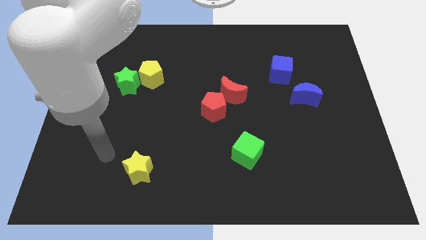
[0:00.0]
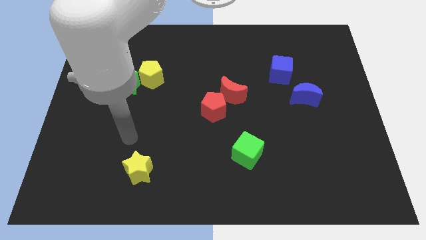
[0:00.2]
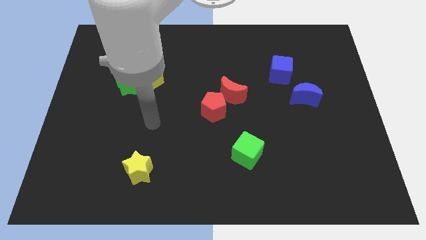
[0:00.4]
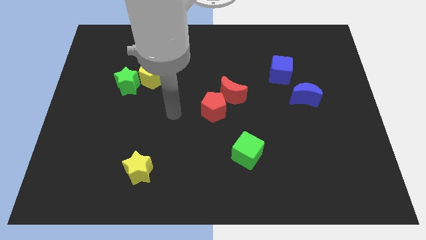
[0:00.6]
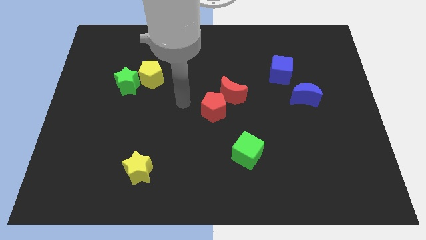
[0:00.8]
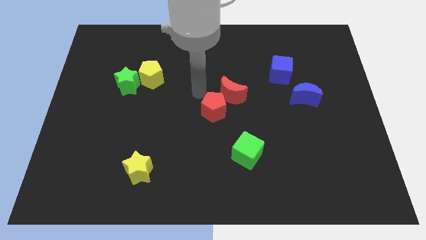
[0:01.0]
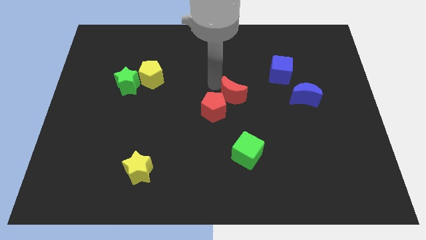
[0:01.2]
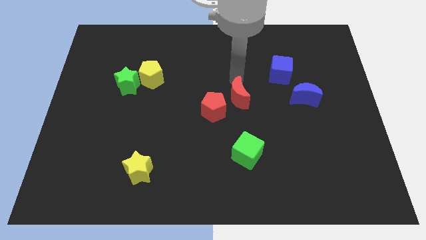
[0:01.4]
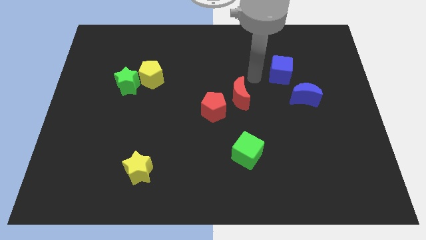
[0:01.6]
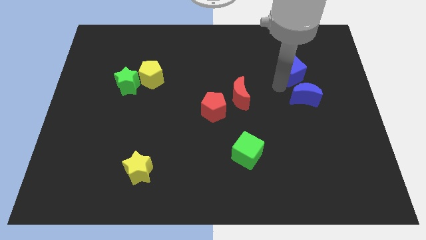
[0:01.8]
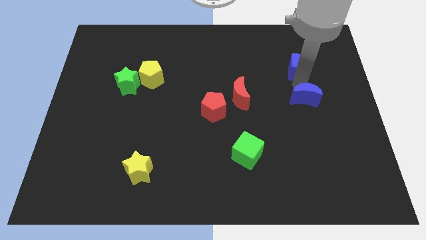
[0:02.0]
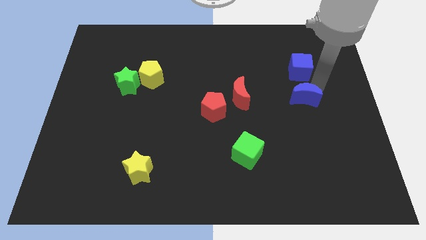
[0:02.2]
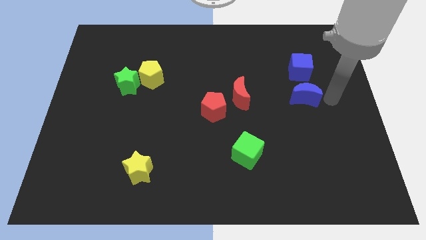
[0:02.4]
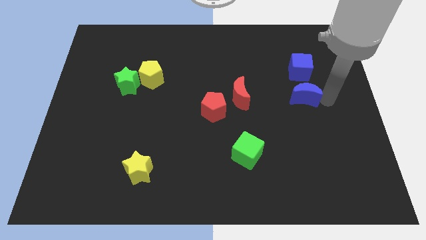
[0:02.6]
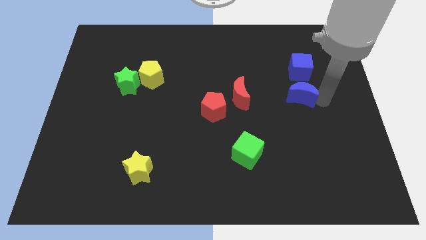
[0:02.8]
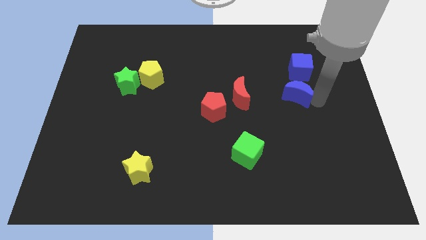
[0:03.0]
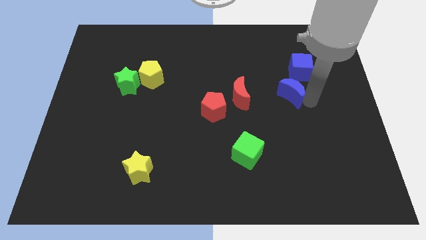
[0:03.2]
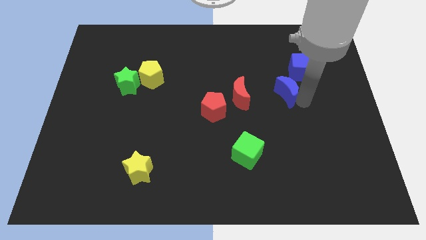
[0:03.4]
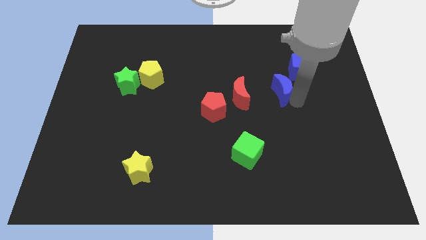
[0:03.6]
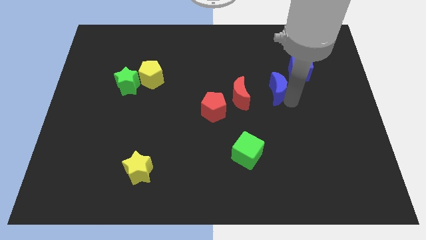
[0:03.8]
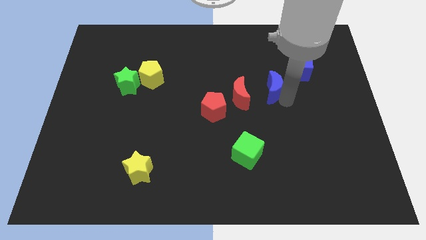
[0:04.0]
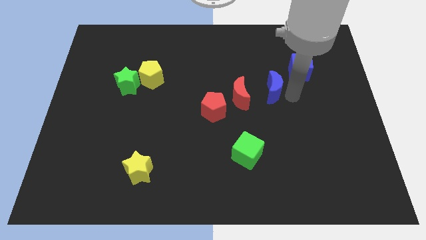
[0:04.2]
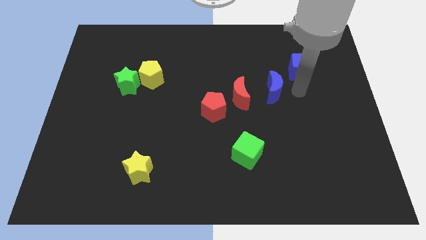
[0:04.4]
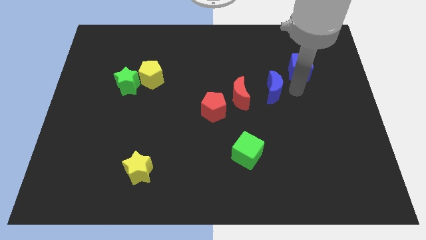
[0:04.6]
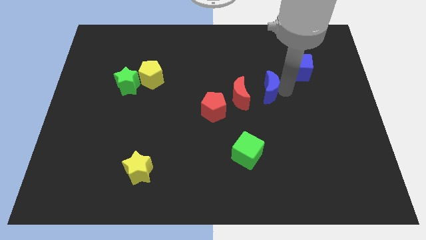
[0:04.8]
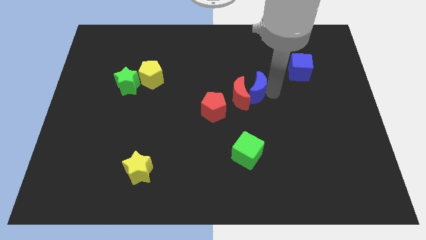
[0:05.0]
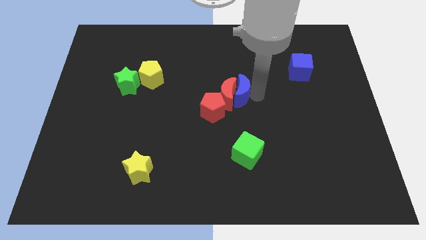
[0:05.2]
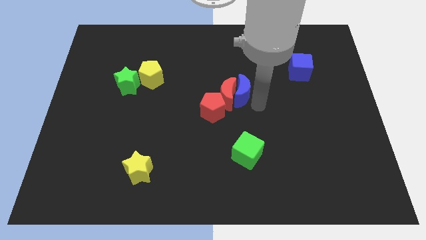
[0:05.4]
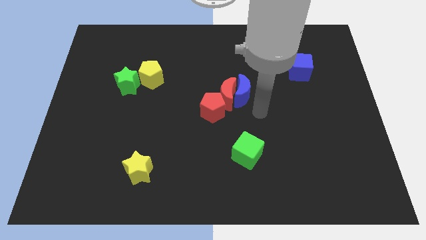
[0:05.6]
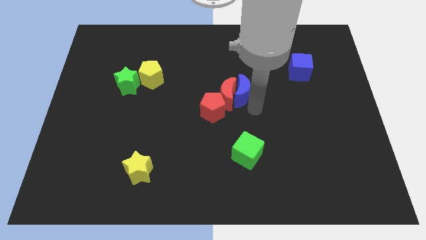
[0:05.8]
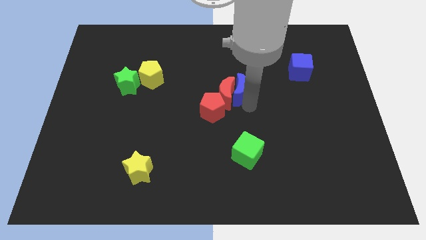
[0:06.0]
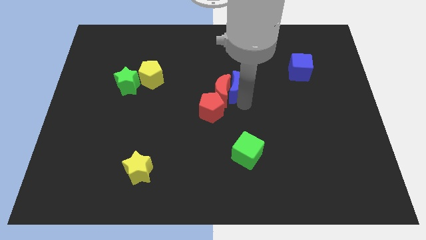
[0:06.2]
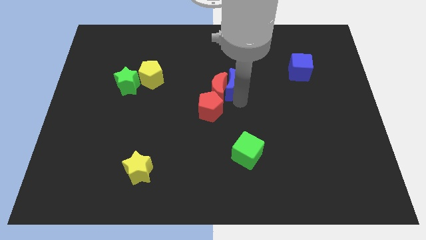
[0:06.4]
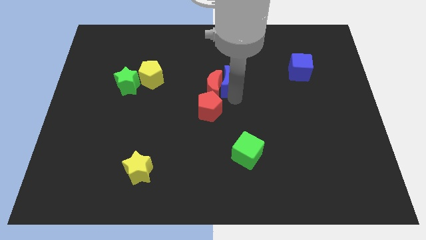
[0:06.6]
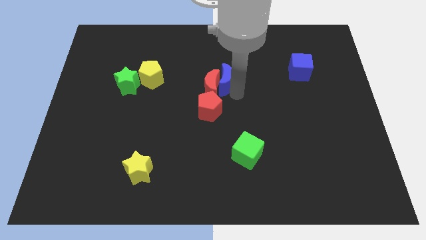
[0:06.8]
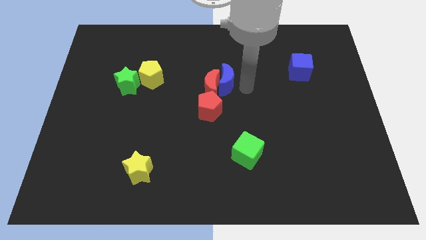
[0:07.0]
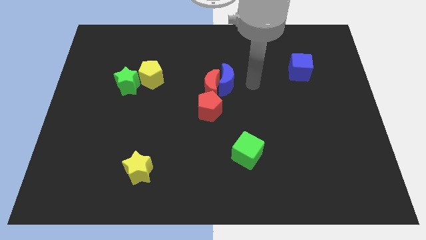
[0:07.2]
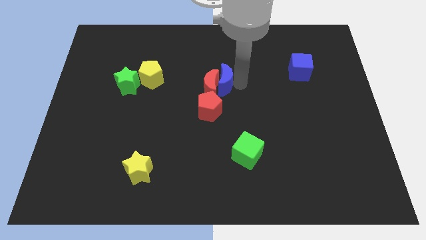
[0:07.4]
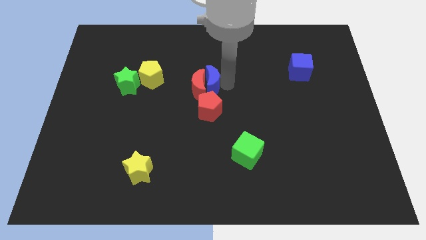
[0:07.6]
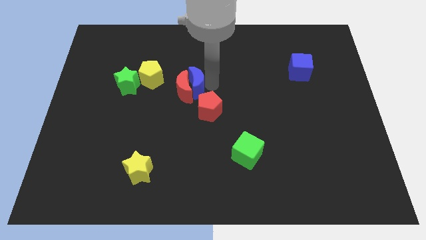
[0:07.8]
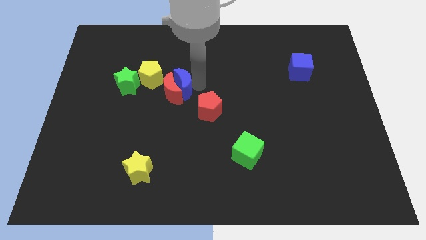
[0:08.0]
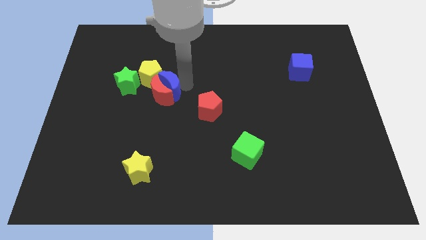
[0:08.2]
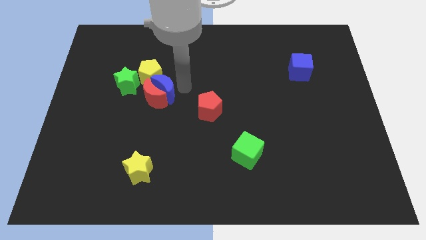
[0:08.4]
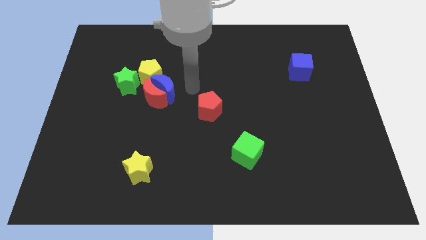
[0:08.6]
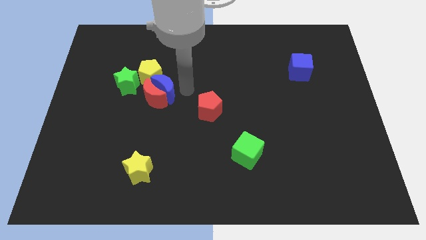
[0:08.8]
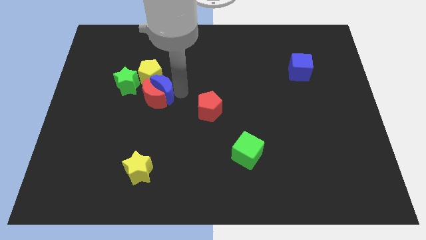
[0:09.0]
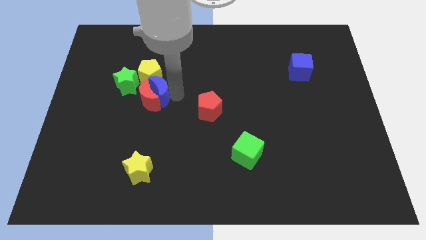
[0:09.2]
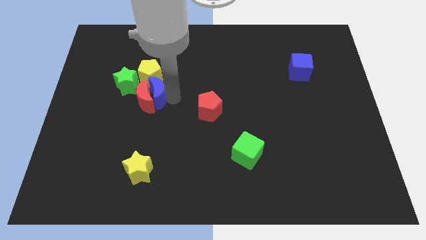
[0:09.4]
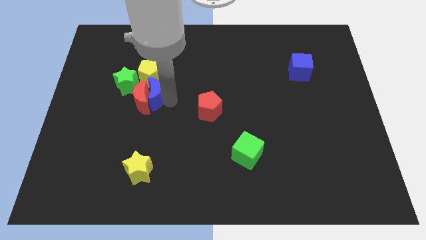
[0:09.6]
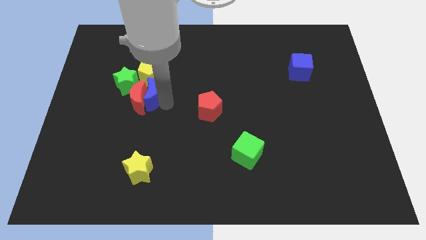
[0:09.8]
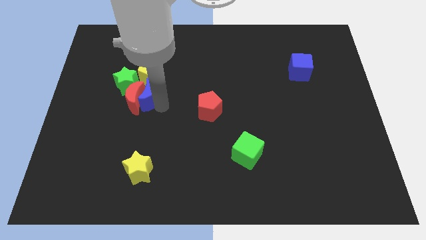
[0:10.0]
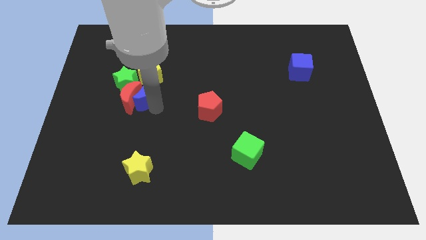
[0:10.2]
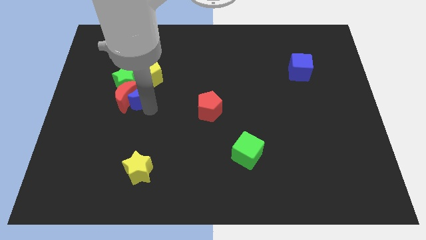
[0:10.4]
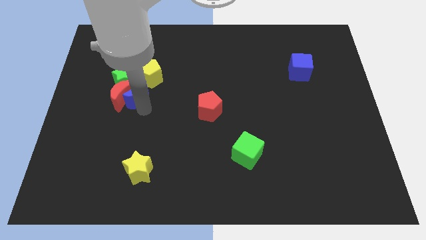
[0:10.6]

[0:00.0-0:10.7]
slide the blue moon close to the green star

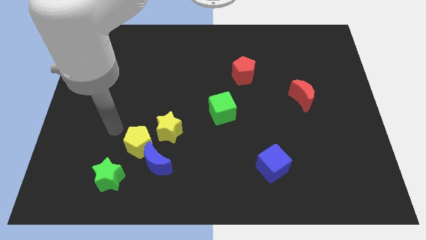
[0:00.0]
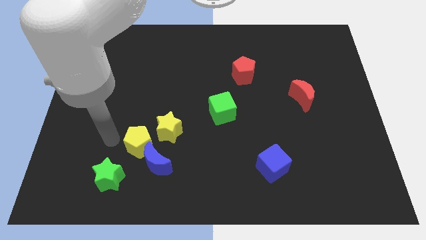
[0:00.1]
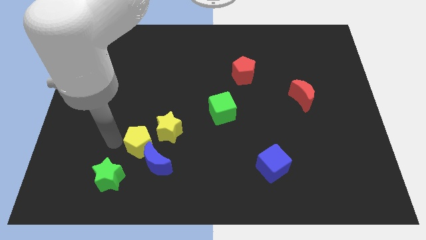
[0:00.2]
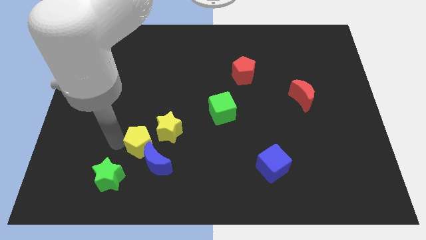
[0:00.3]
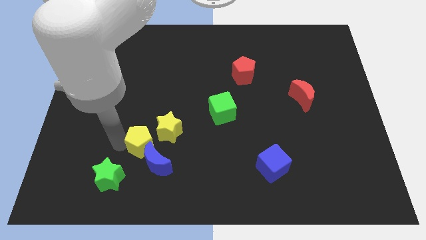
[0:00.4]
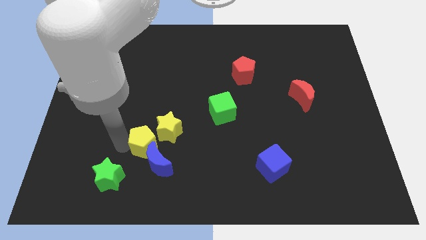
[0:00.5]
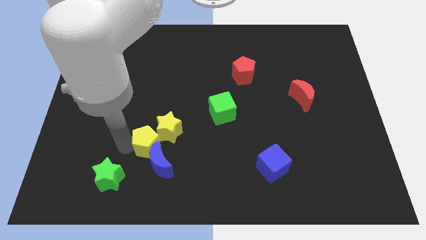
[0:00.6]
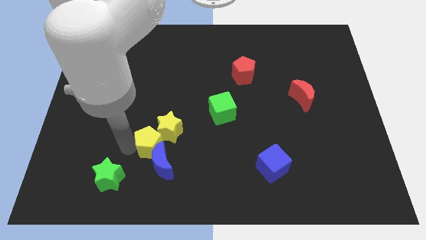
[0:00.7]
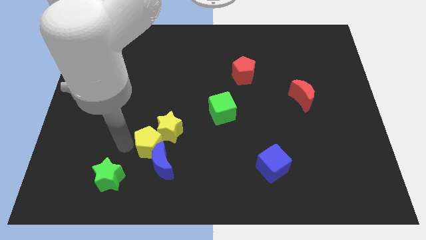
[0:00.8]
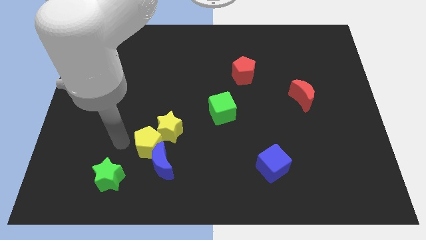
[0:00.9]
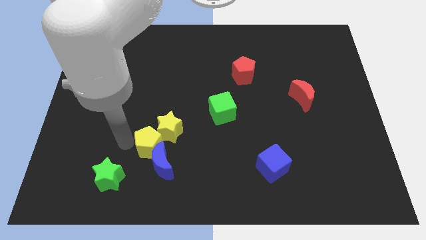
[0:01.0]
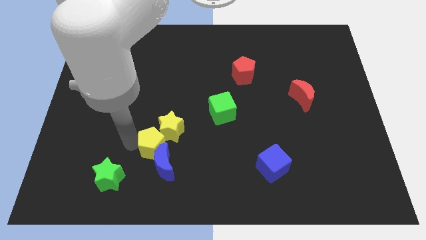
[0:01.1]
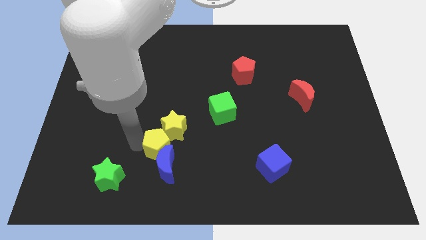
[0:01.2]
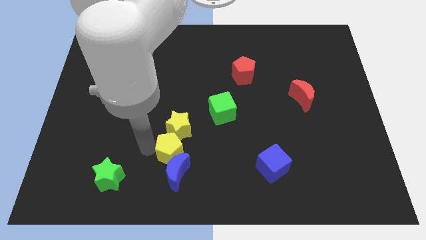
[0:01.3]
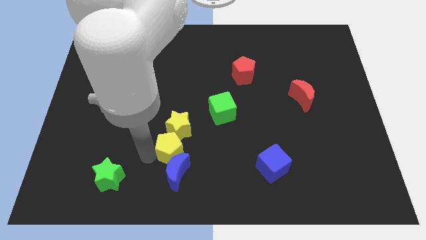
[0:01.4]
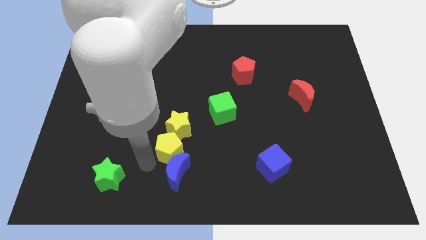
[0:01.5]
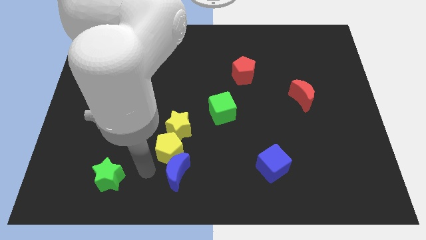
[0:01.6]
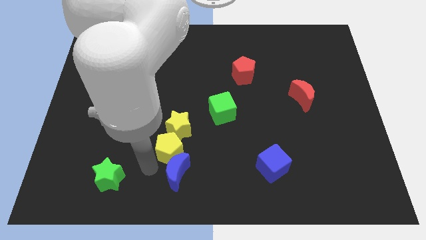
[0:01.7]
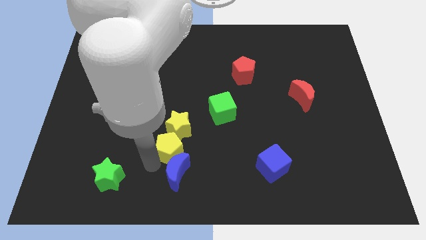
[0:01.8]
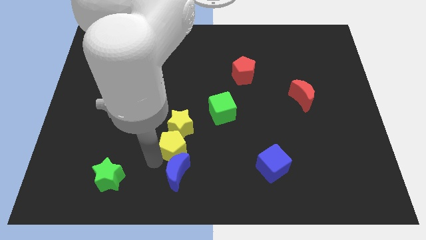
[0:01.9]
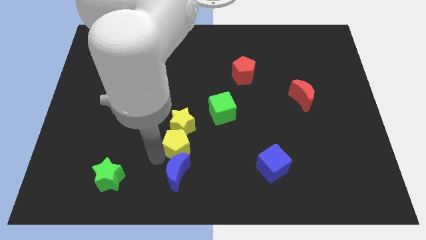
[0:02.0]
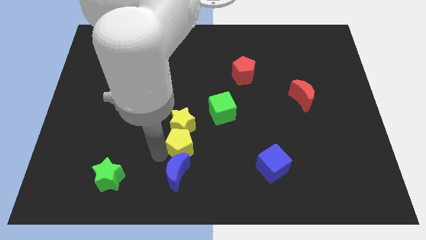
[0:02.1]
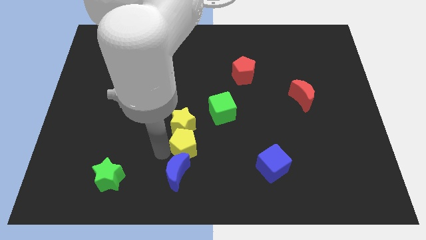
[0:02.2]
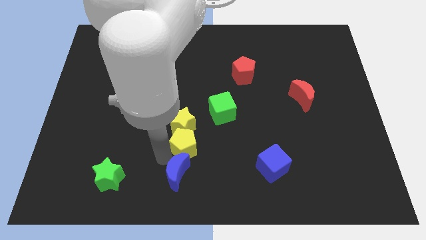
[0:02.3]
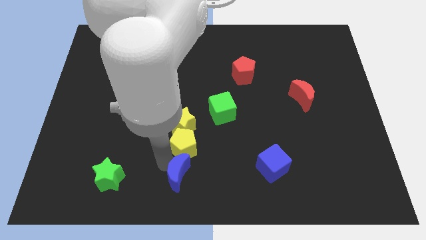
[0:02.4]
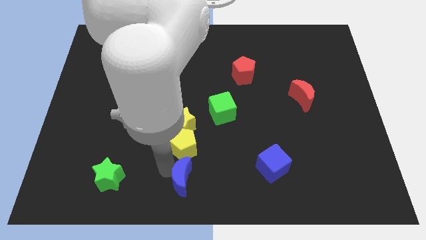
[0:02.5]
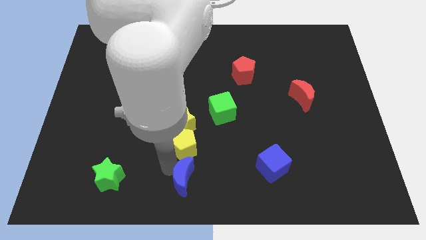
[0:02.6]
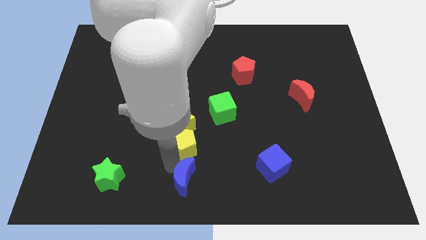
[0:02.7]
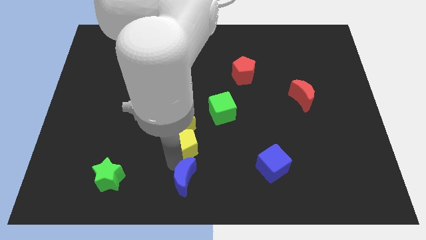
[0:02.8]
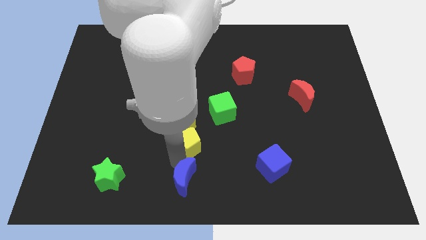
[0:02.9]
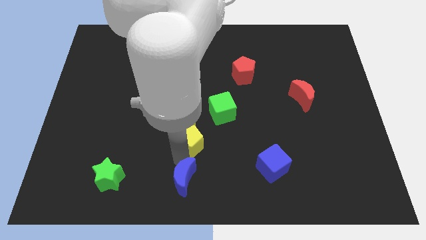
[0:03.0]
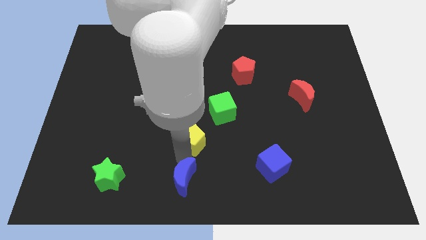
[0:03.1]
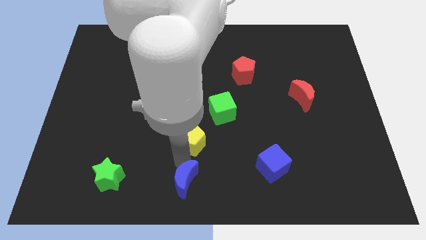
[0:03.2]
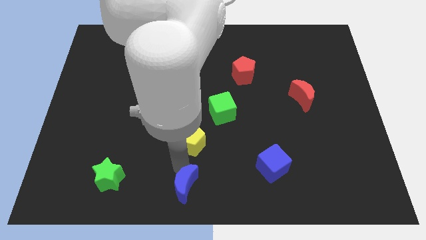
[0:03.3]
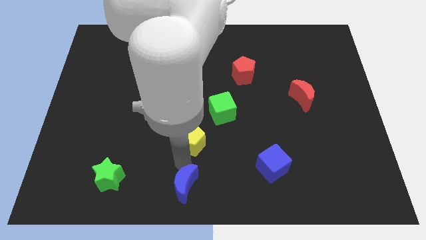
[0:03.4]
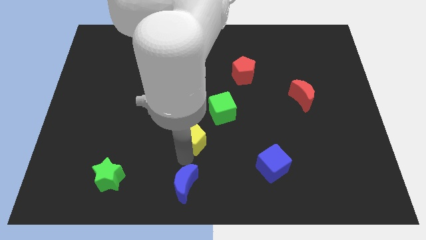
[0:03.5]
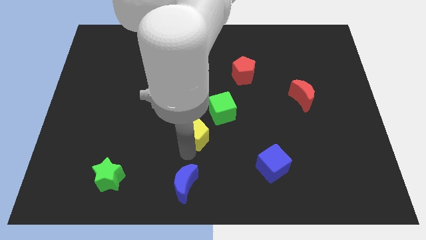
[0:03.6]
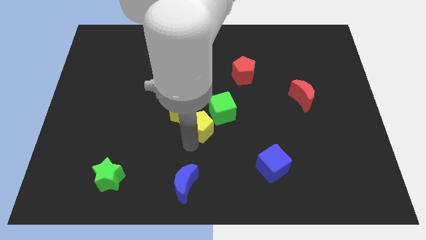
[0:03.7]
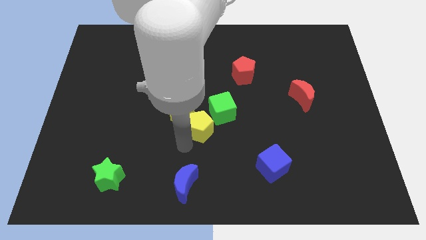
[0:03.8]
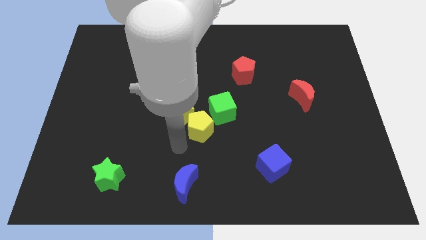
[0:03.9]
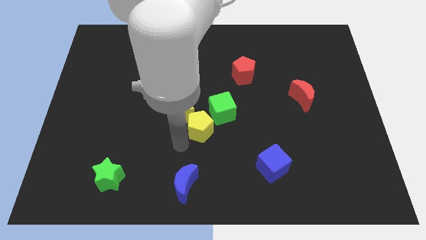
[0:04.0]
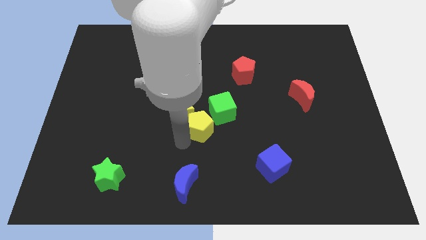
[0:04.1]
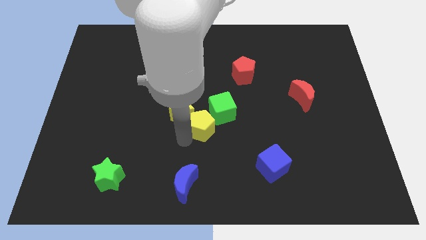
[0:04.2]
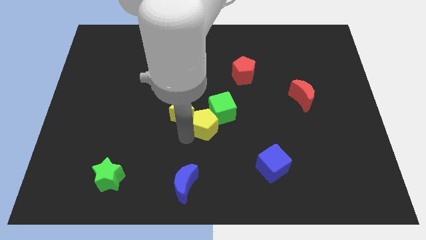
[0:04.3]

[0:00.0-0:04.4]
slide the yellow pentagon towards the green cube
